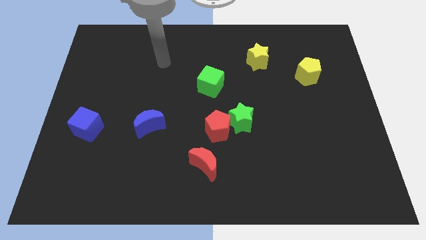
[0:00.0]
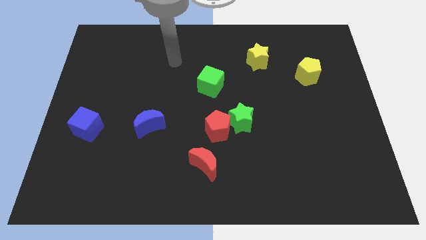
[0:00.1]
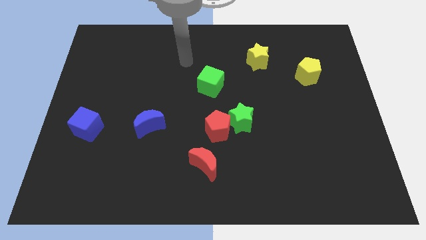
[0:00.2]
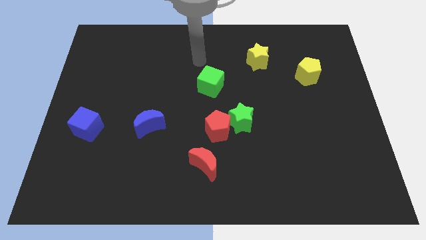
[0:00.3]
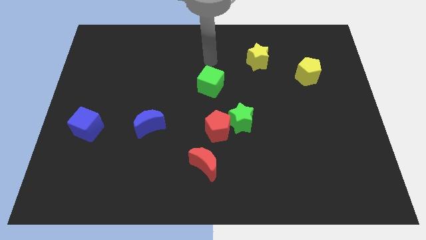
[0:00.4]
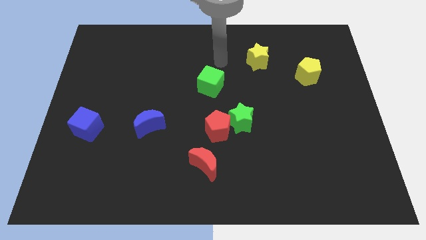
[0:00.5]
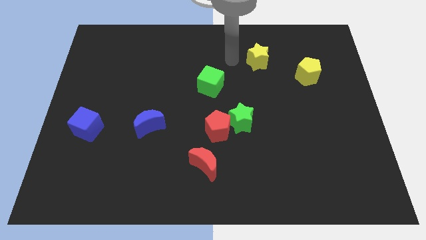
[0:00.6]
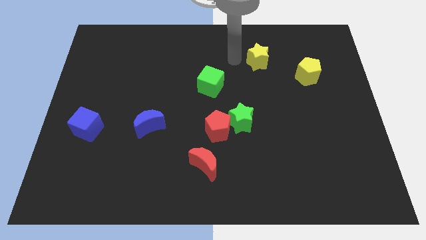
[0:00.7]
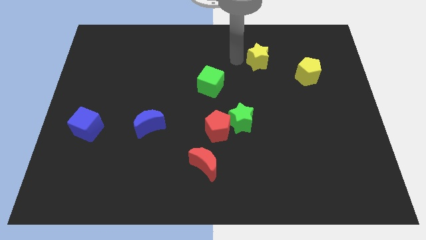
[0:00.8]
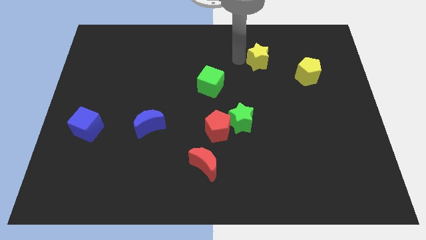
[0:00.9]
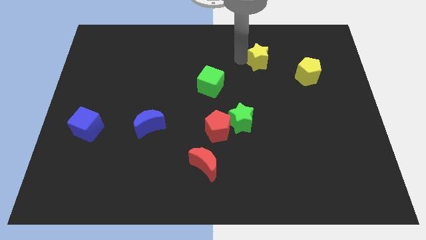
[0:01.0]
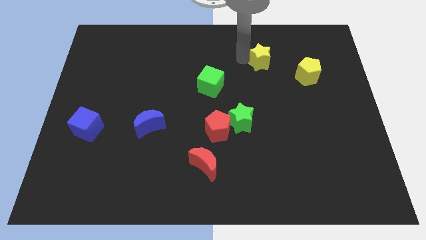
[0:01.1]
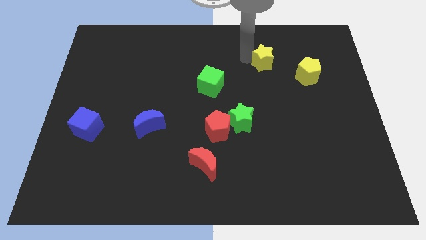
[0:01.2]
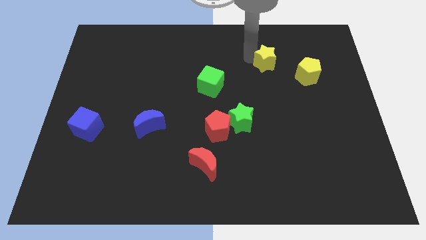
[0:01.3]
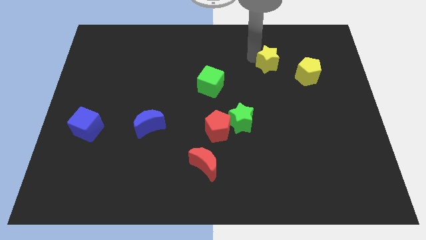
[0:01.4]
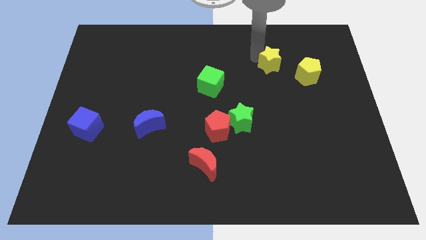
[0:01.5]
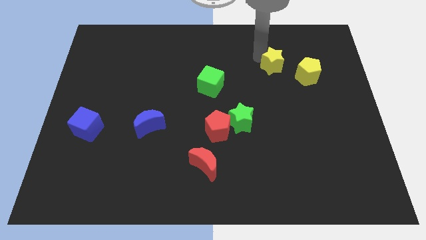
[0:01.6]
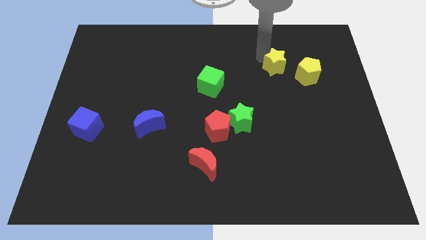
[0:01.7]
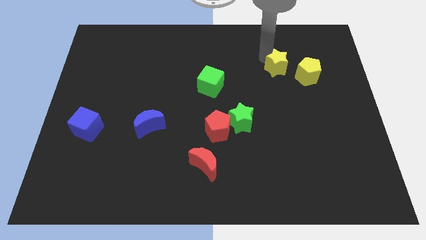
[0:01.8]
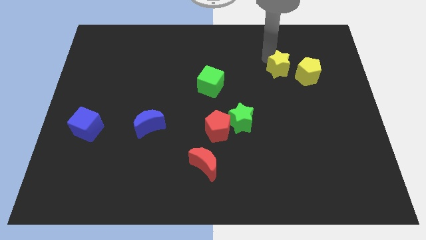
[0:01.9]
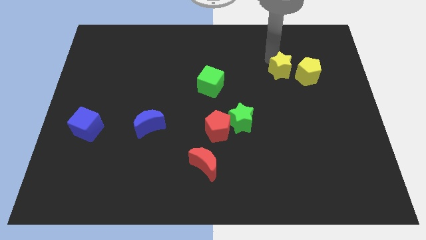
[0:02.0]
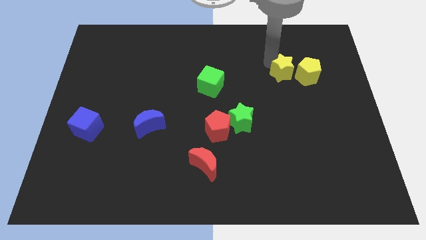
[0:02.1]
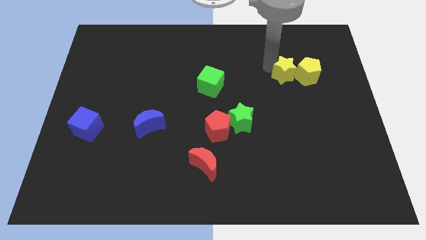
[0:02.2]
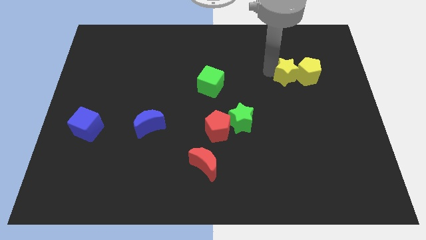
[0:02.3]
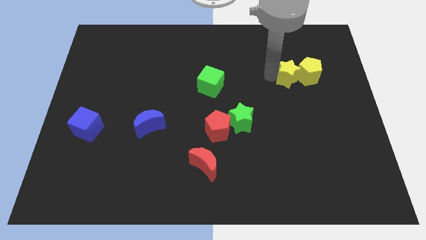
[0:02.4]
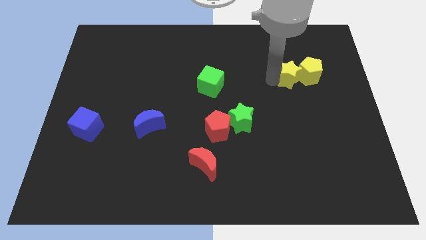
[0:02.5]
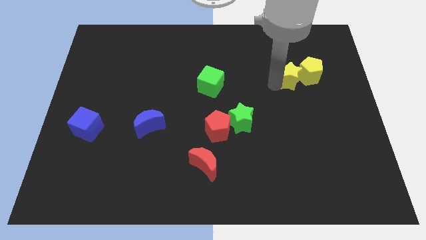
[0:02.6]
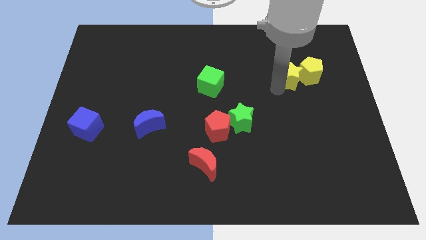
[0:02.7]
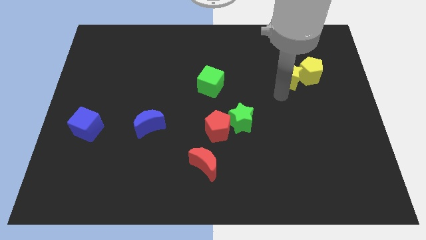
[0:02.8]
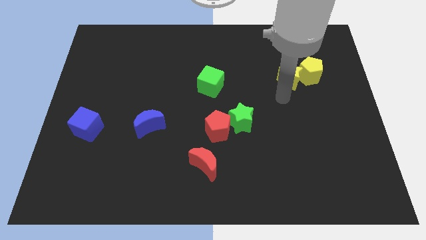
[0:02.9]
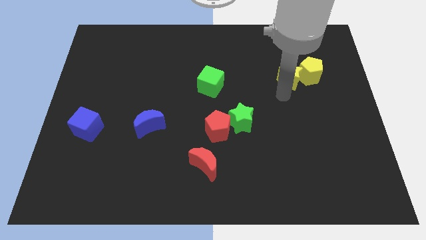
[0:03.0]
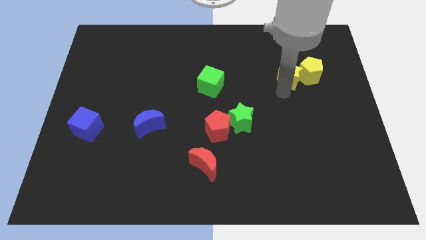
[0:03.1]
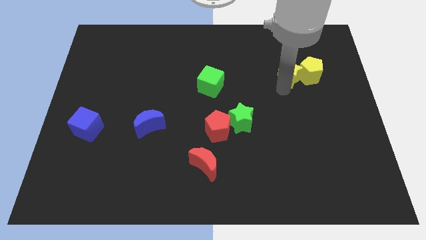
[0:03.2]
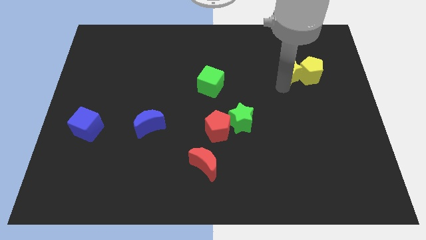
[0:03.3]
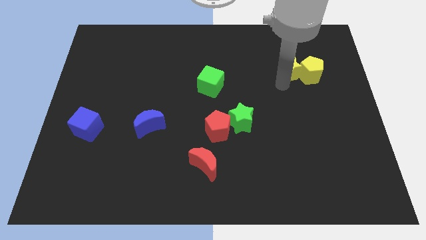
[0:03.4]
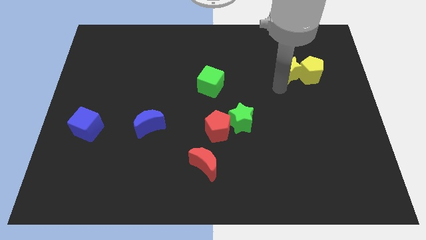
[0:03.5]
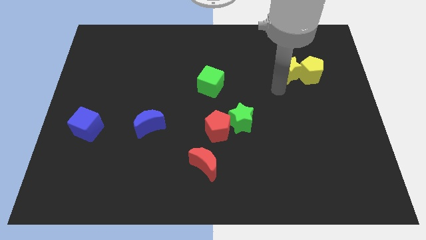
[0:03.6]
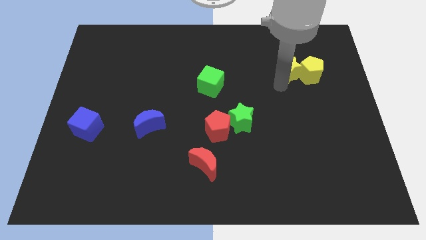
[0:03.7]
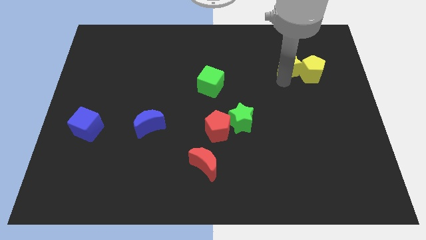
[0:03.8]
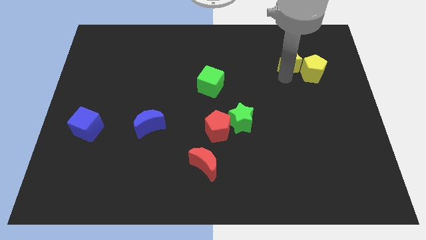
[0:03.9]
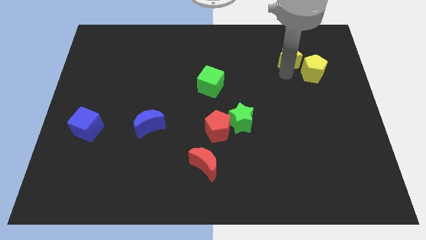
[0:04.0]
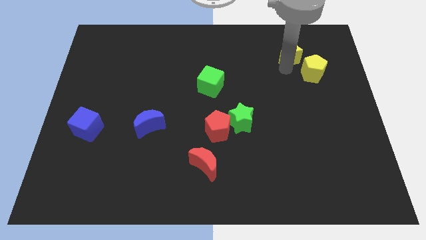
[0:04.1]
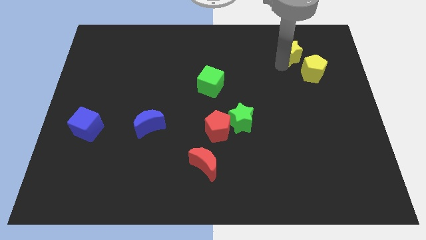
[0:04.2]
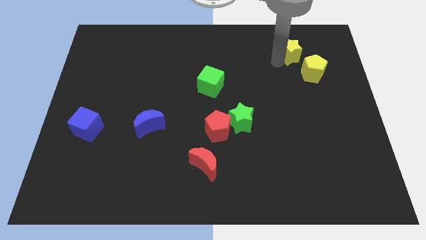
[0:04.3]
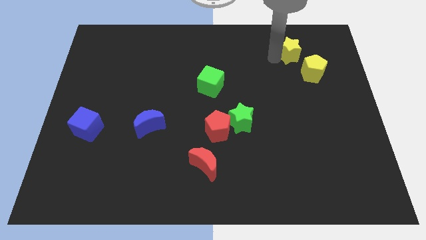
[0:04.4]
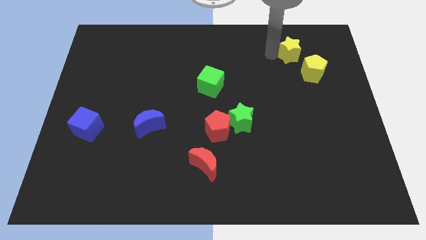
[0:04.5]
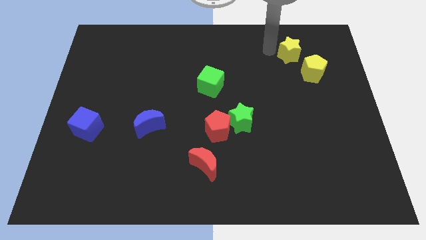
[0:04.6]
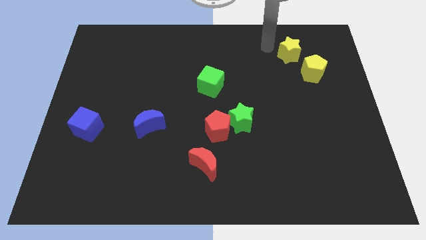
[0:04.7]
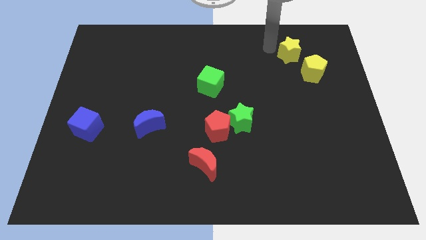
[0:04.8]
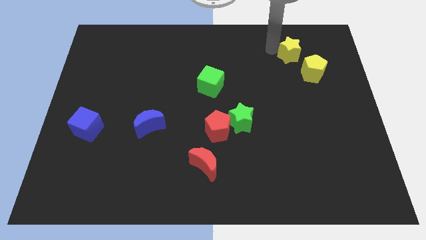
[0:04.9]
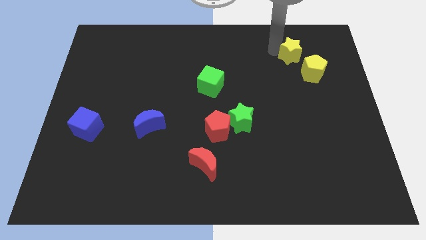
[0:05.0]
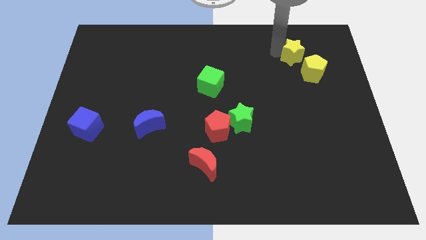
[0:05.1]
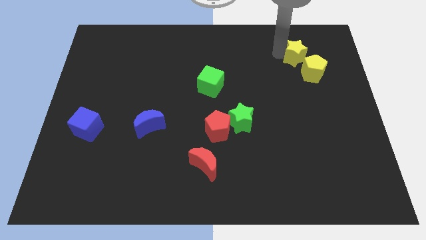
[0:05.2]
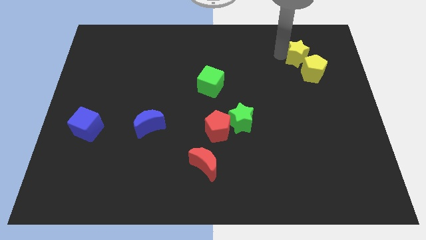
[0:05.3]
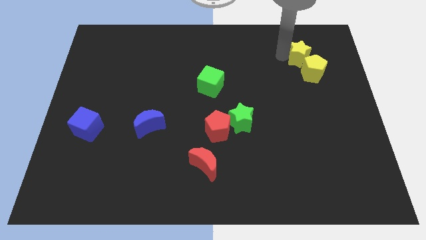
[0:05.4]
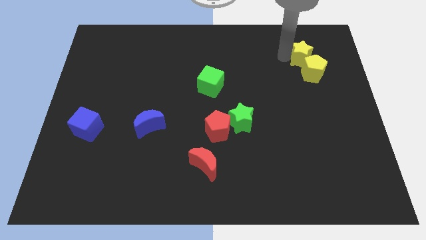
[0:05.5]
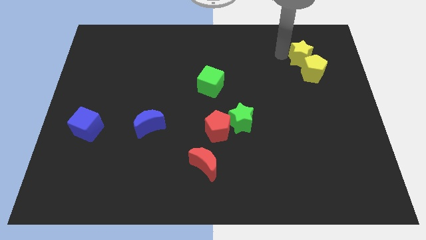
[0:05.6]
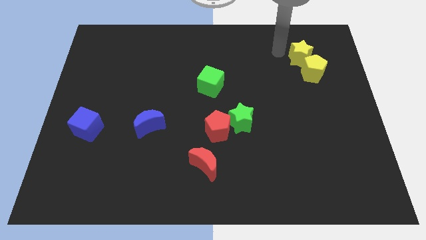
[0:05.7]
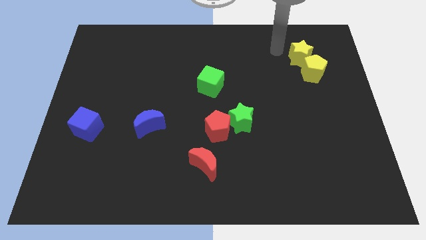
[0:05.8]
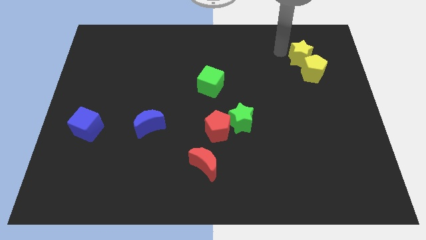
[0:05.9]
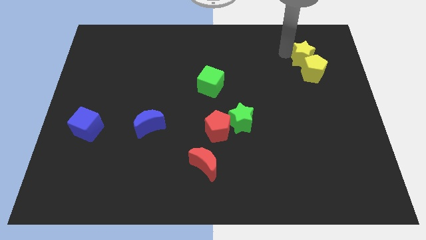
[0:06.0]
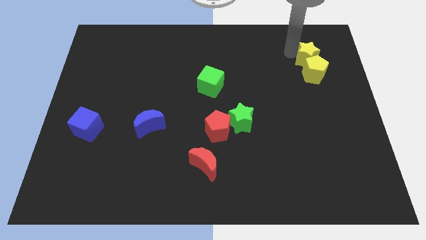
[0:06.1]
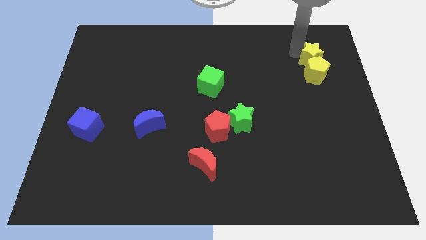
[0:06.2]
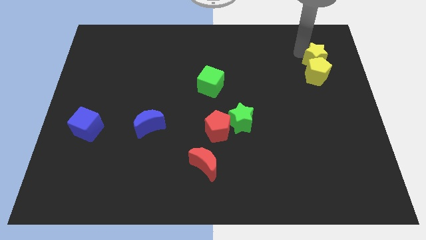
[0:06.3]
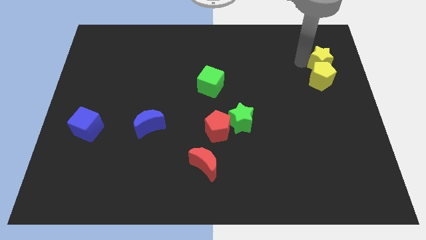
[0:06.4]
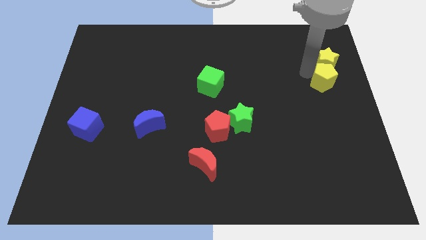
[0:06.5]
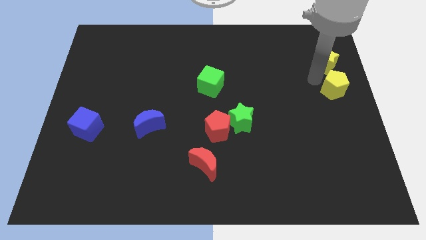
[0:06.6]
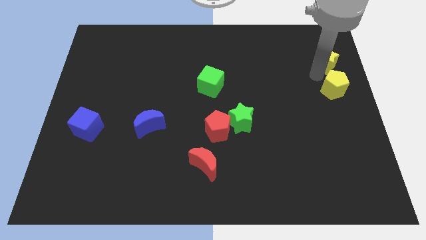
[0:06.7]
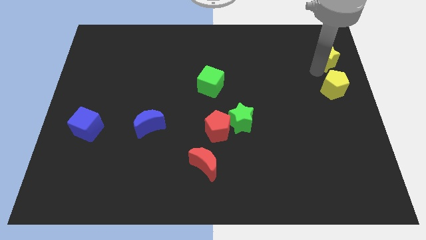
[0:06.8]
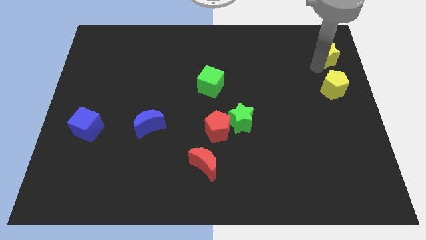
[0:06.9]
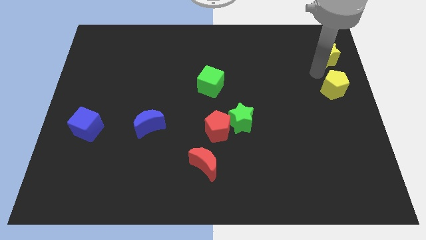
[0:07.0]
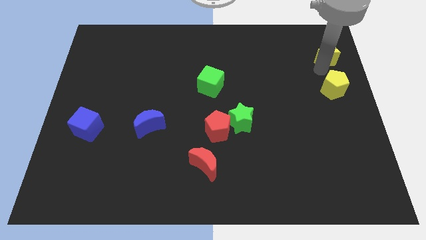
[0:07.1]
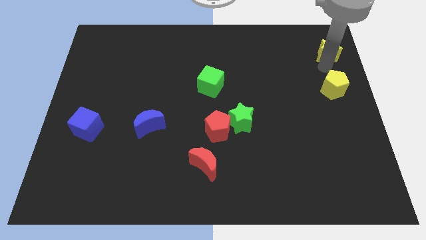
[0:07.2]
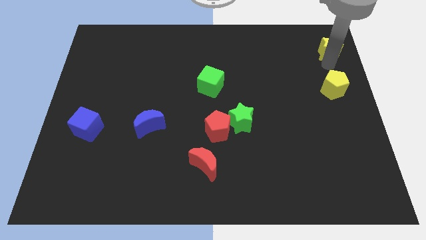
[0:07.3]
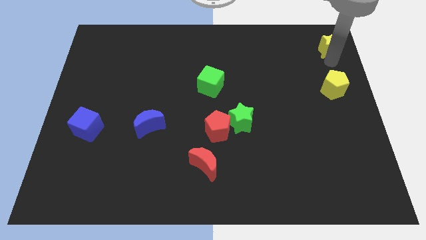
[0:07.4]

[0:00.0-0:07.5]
slide the yellow star to the top right

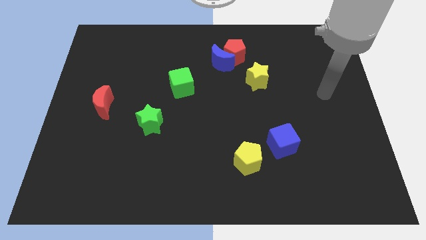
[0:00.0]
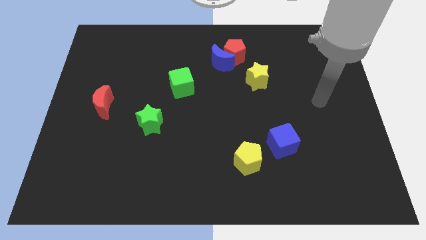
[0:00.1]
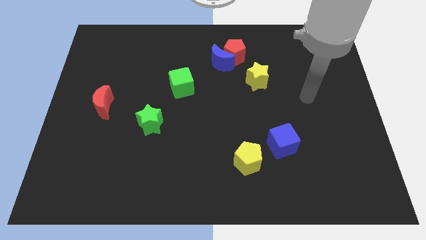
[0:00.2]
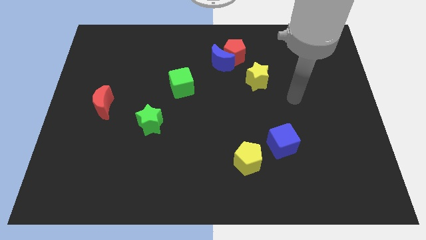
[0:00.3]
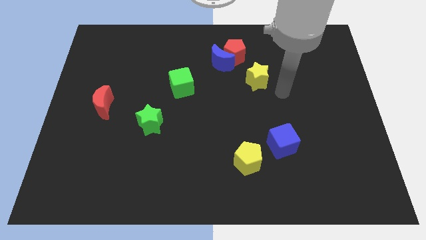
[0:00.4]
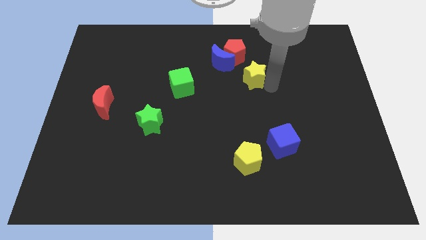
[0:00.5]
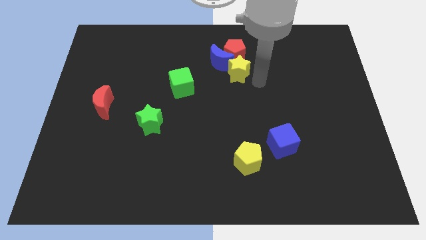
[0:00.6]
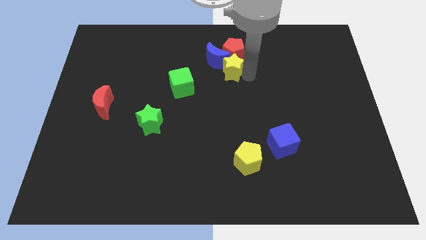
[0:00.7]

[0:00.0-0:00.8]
put the red pentagon to the top side
